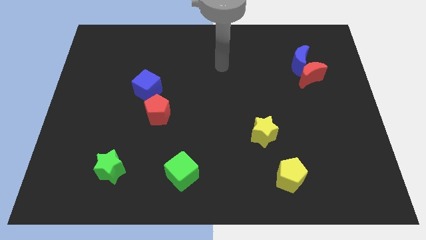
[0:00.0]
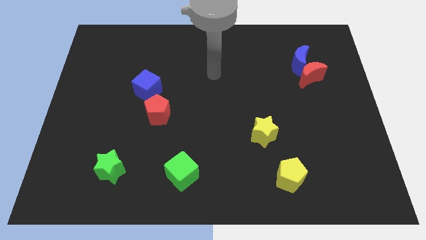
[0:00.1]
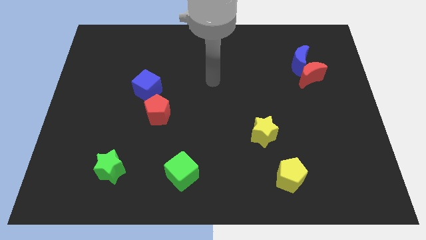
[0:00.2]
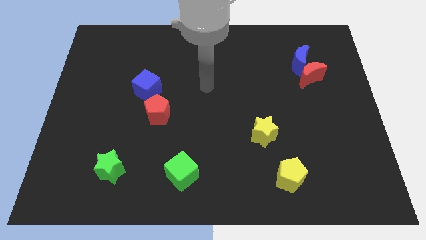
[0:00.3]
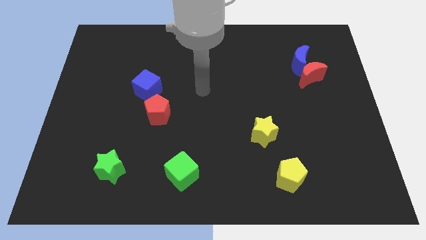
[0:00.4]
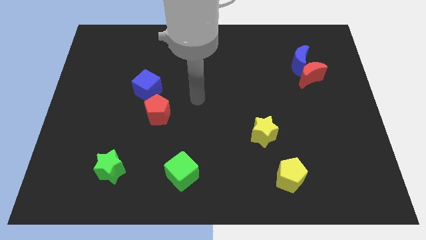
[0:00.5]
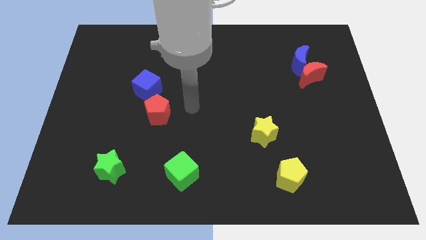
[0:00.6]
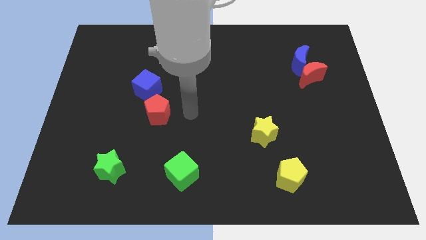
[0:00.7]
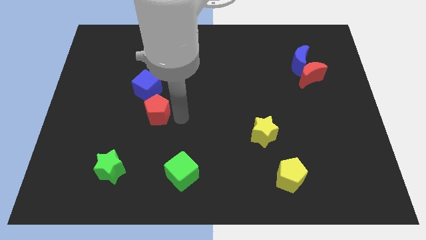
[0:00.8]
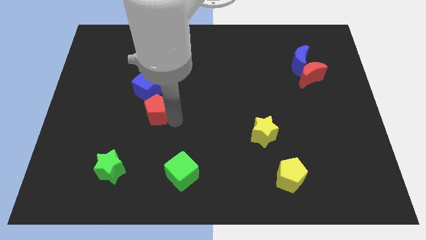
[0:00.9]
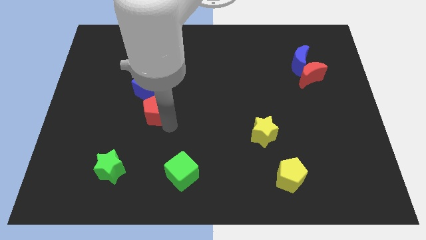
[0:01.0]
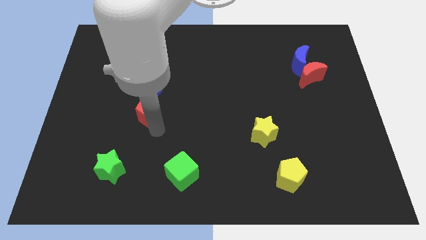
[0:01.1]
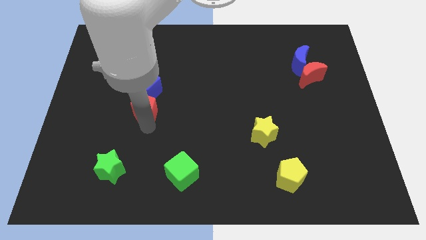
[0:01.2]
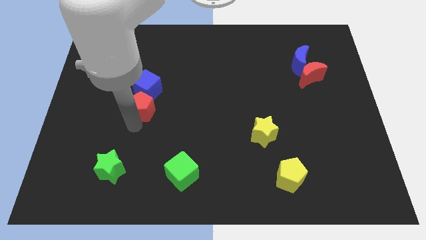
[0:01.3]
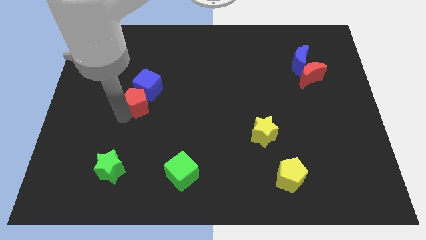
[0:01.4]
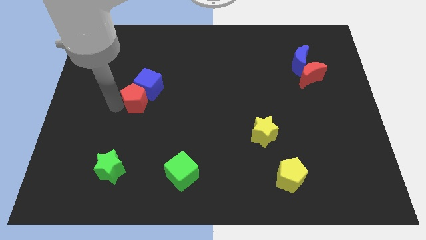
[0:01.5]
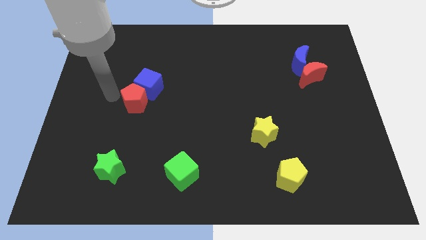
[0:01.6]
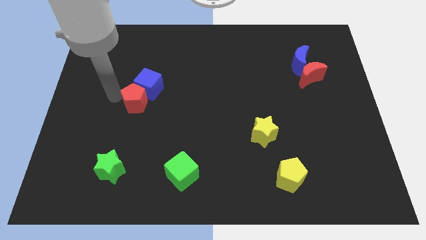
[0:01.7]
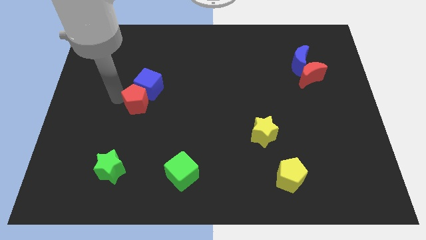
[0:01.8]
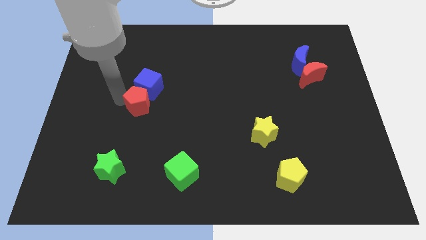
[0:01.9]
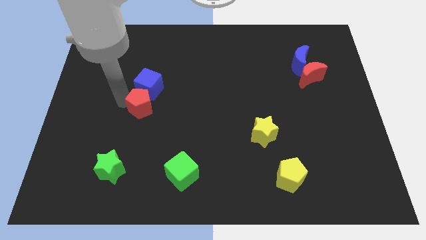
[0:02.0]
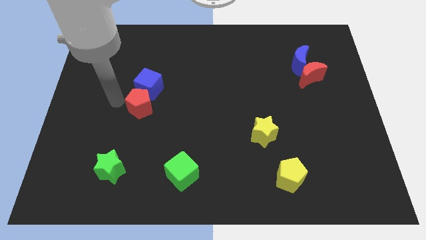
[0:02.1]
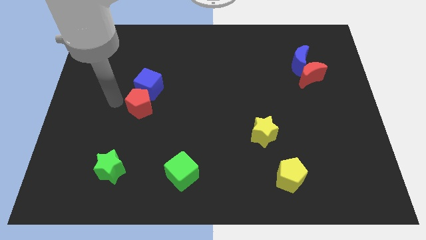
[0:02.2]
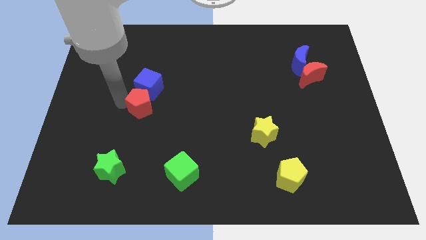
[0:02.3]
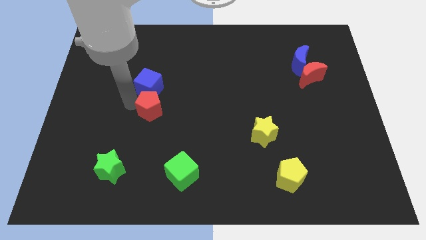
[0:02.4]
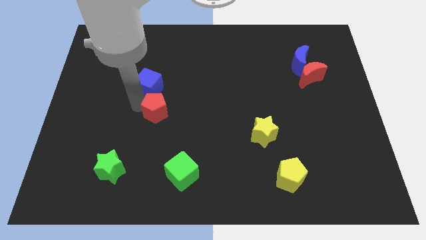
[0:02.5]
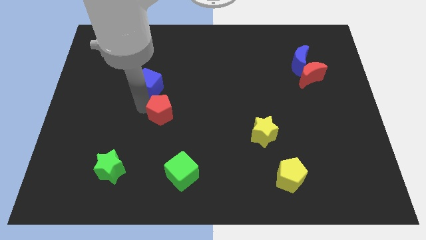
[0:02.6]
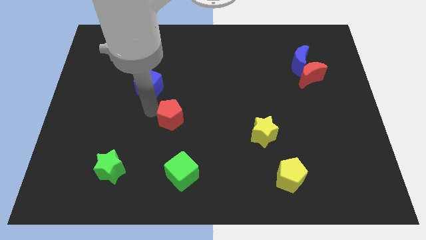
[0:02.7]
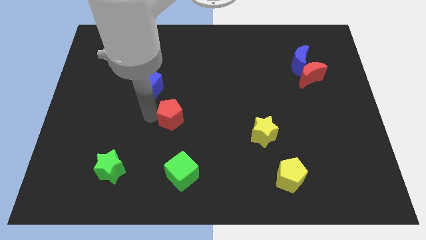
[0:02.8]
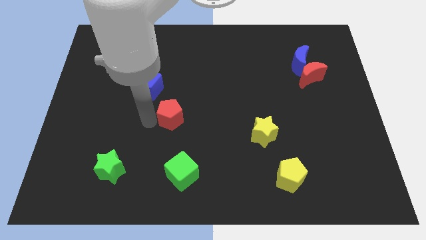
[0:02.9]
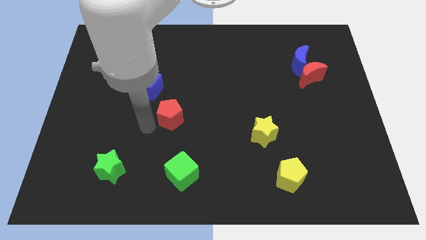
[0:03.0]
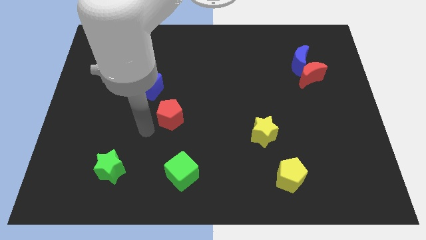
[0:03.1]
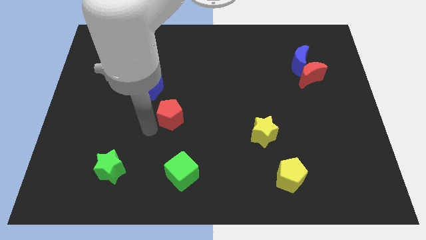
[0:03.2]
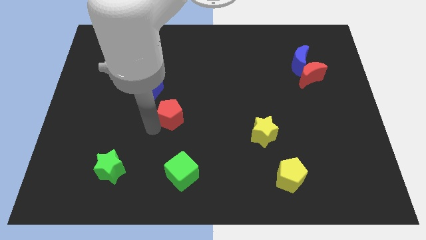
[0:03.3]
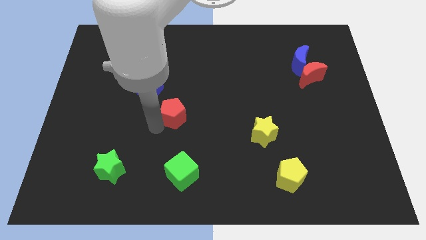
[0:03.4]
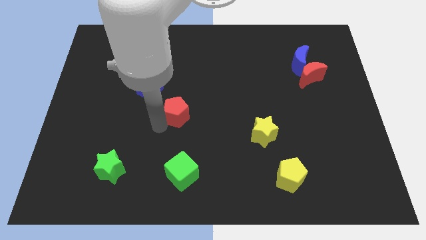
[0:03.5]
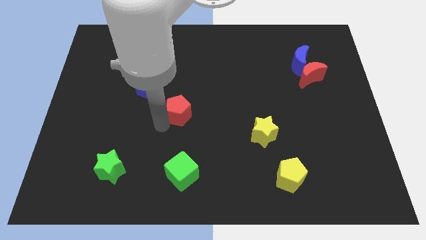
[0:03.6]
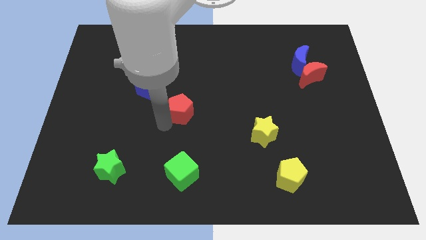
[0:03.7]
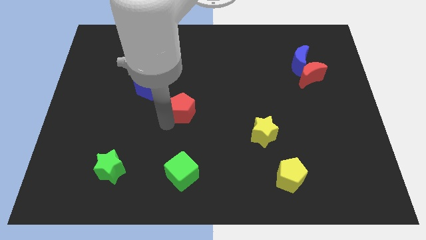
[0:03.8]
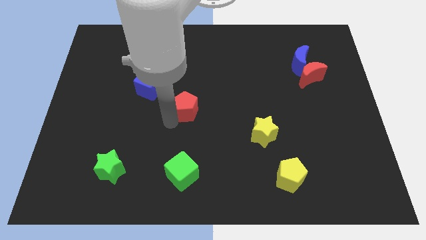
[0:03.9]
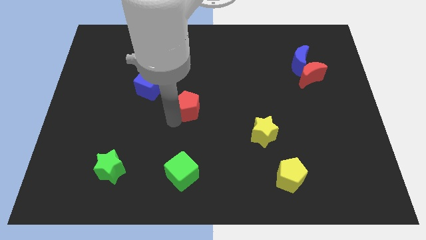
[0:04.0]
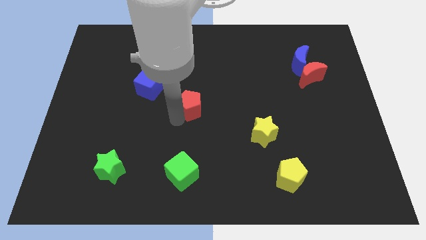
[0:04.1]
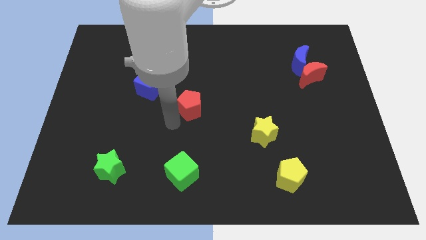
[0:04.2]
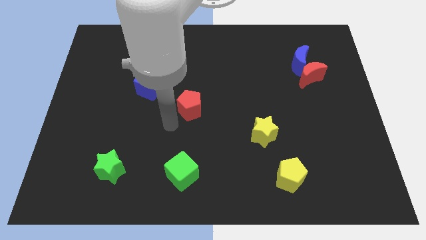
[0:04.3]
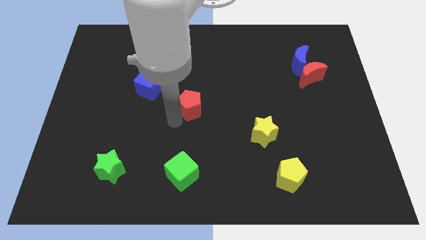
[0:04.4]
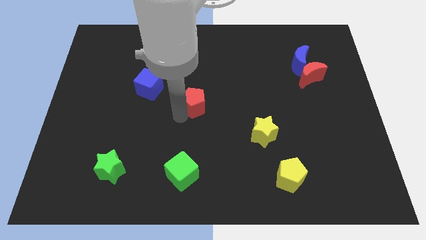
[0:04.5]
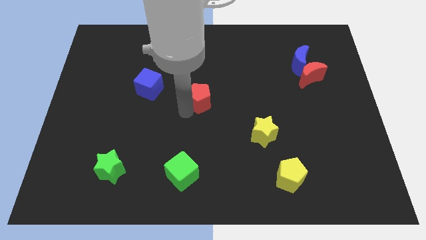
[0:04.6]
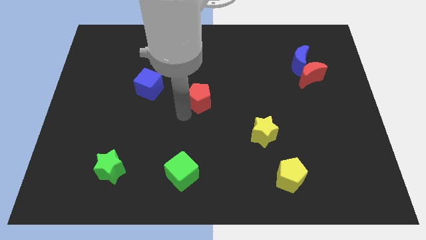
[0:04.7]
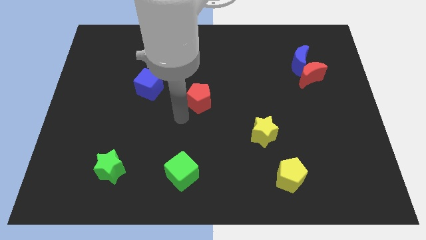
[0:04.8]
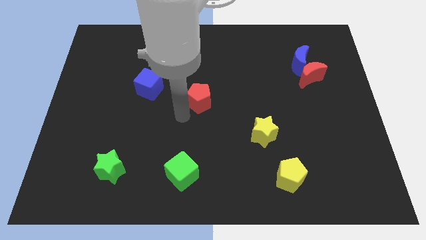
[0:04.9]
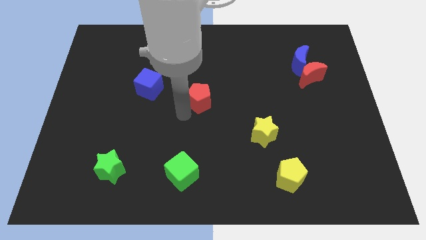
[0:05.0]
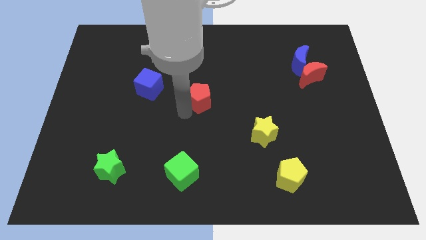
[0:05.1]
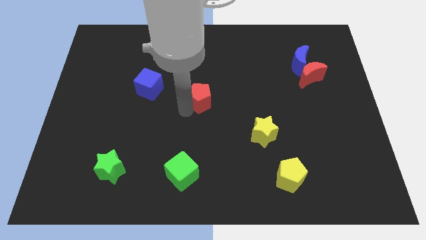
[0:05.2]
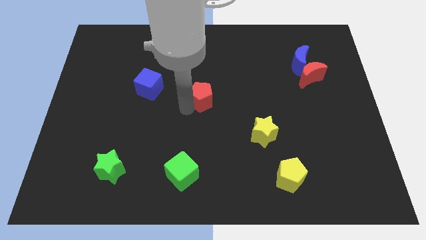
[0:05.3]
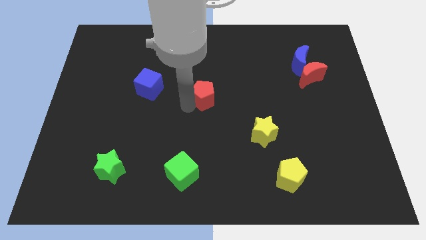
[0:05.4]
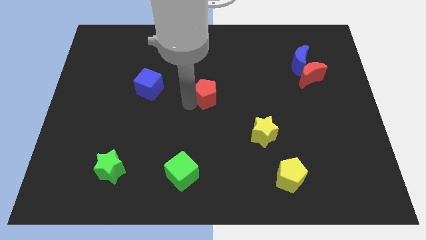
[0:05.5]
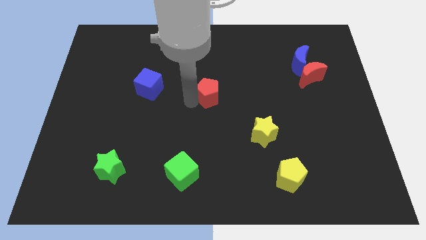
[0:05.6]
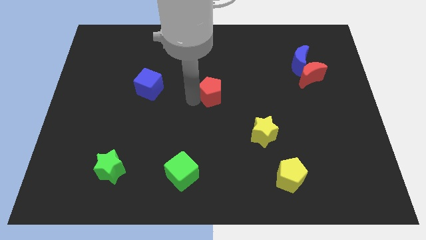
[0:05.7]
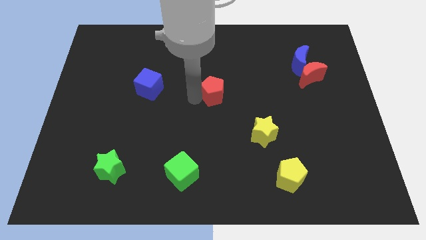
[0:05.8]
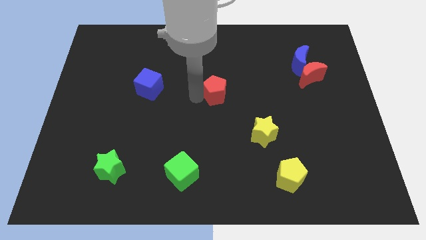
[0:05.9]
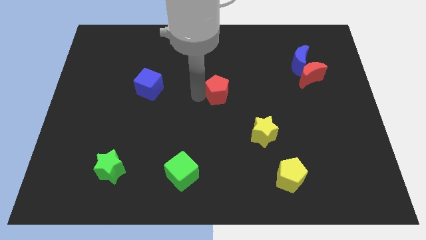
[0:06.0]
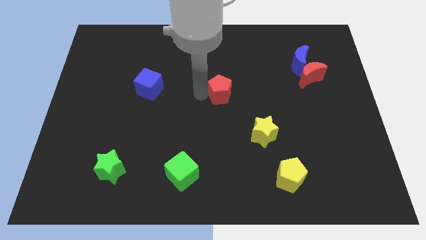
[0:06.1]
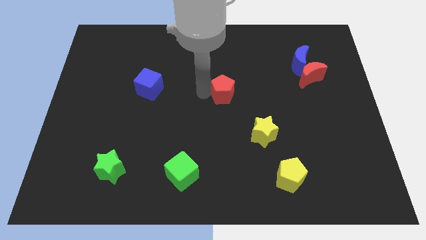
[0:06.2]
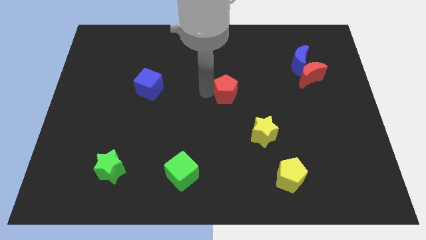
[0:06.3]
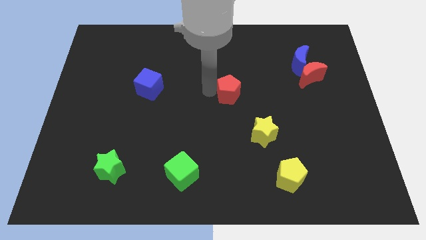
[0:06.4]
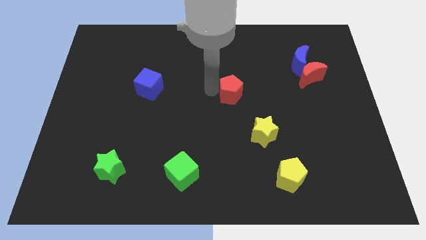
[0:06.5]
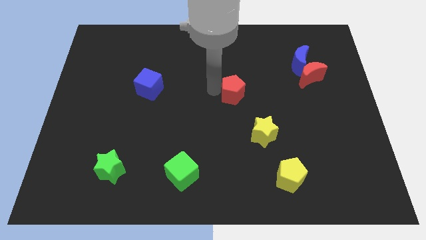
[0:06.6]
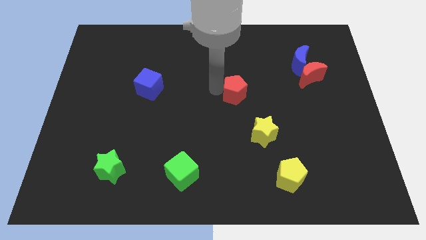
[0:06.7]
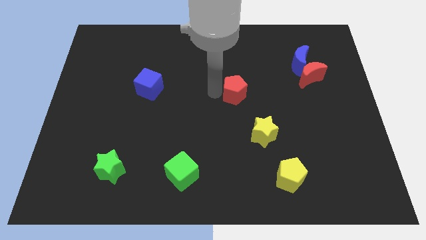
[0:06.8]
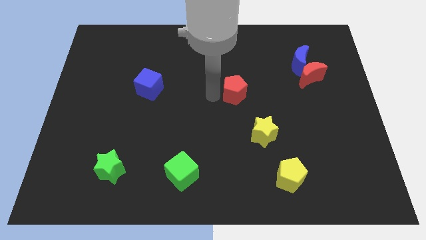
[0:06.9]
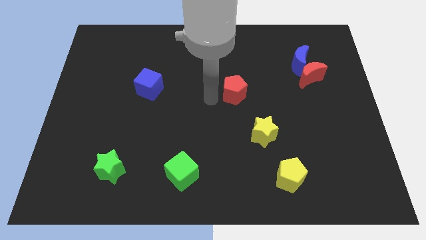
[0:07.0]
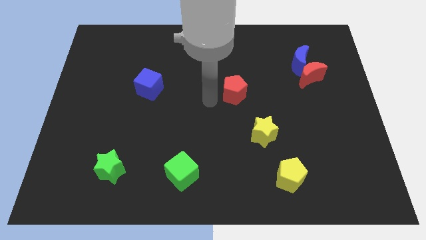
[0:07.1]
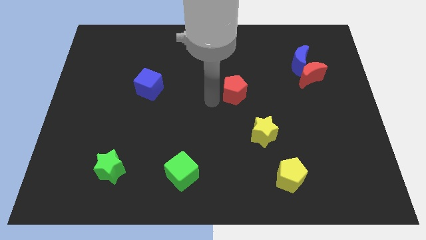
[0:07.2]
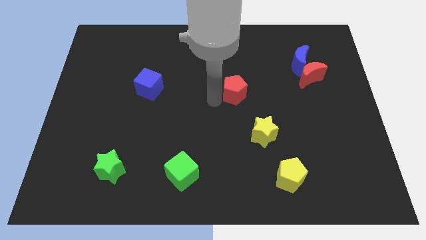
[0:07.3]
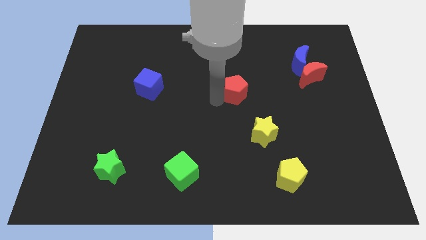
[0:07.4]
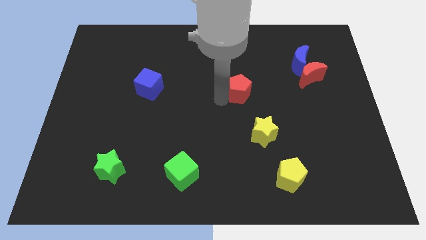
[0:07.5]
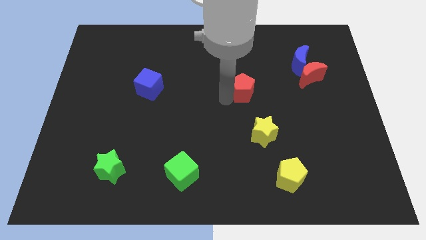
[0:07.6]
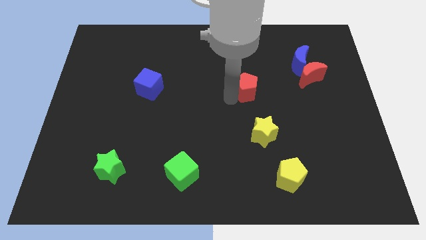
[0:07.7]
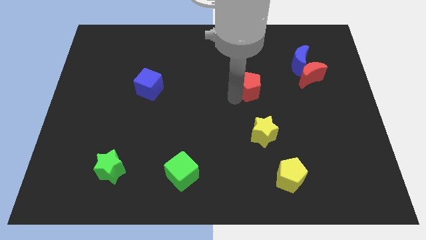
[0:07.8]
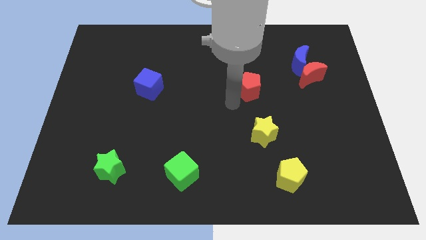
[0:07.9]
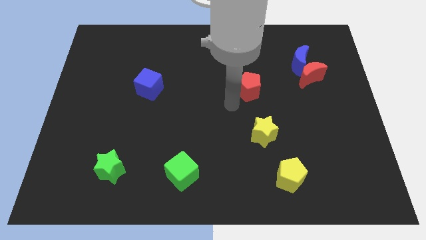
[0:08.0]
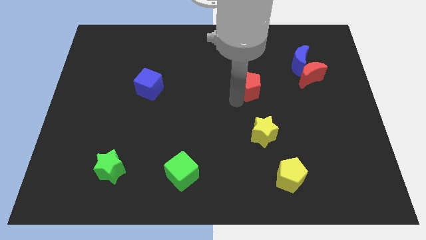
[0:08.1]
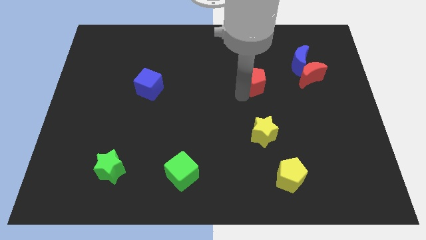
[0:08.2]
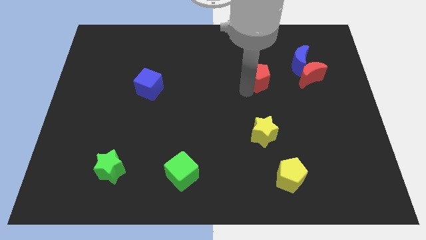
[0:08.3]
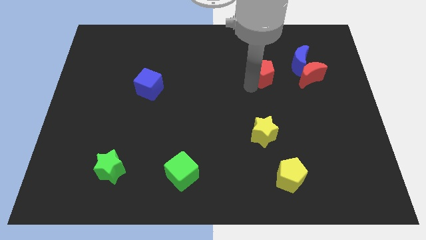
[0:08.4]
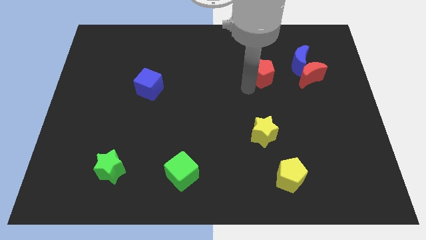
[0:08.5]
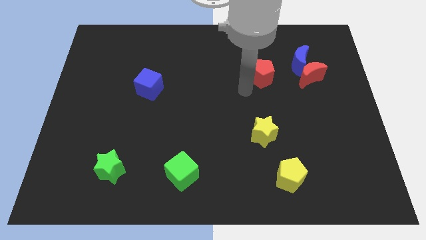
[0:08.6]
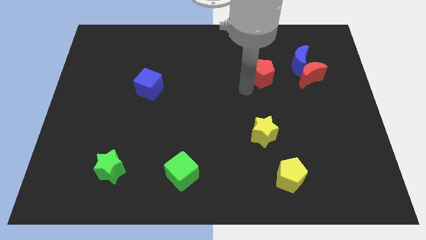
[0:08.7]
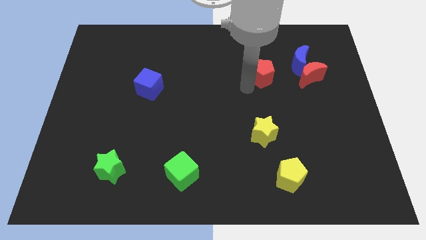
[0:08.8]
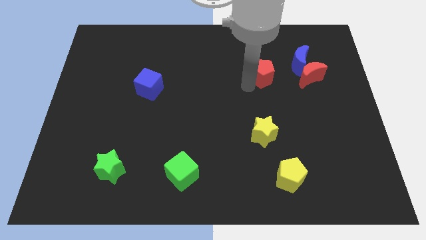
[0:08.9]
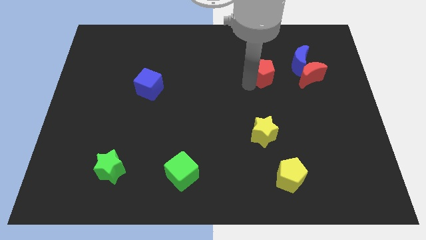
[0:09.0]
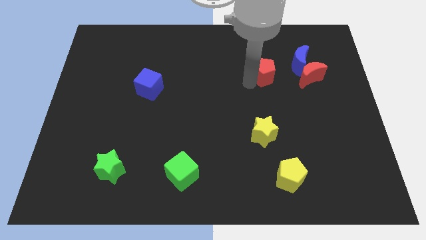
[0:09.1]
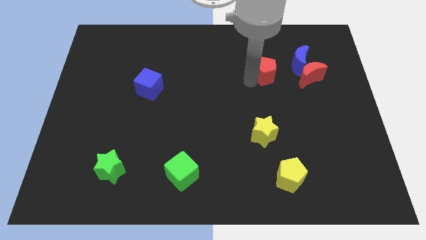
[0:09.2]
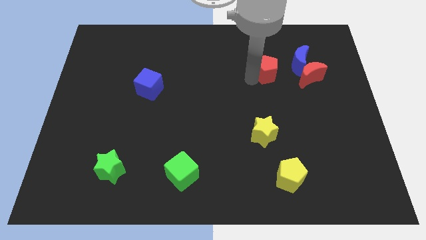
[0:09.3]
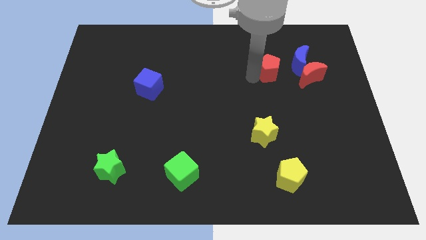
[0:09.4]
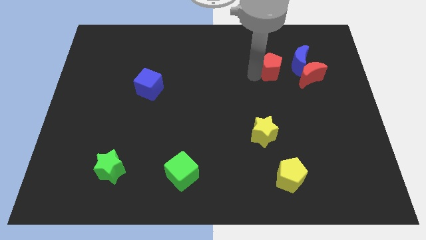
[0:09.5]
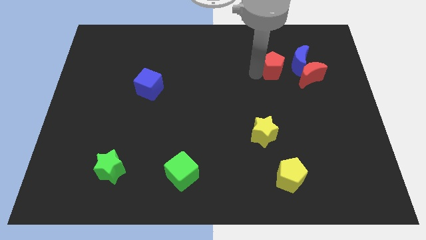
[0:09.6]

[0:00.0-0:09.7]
slide the red pentagon to the top left of the red moon
